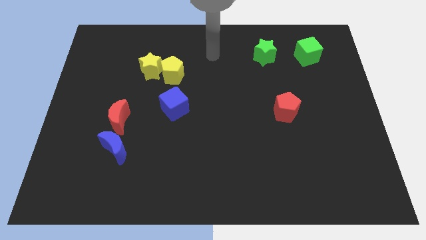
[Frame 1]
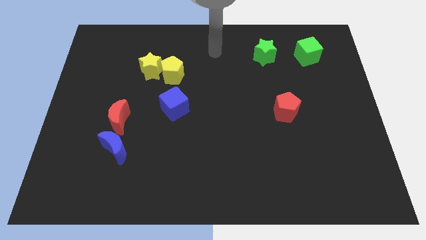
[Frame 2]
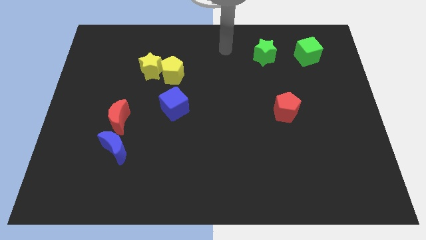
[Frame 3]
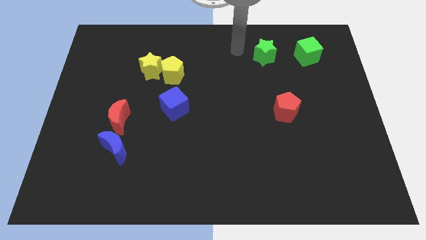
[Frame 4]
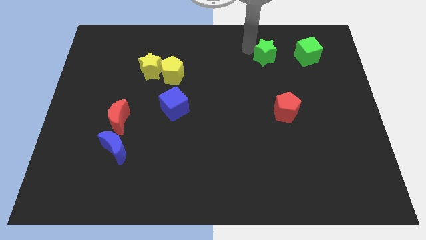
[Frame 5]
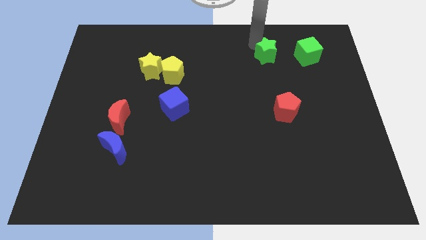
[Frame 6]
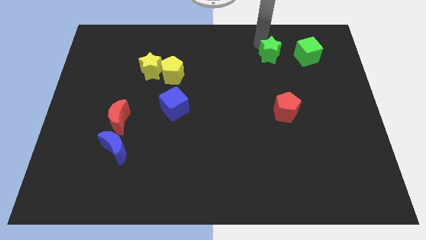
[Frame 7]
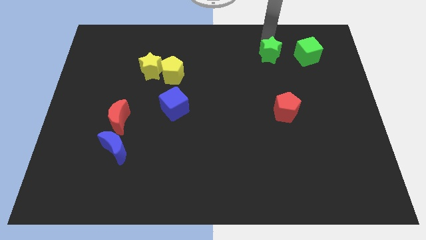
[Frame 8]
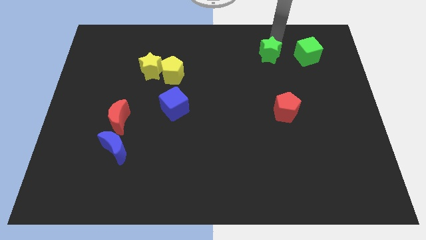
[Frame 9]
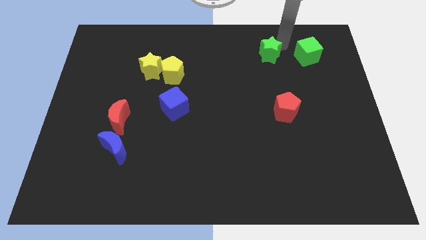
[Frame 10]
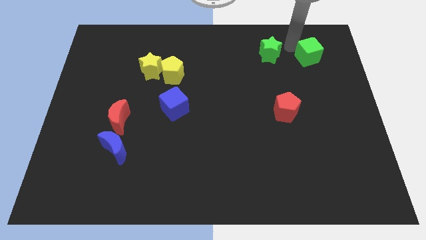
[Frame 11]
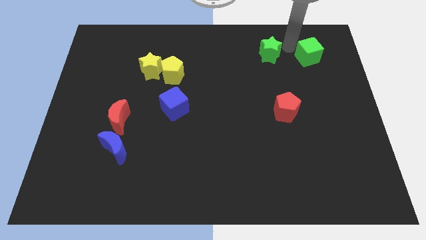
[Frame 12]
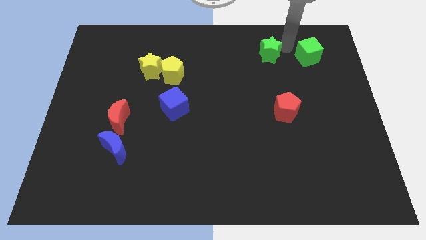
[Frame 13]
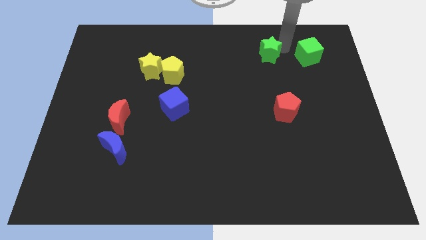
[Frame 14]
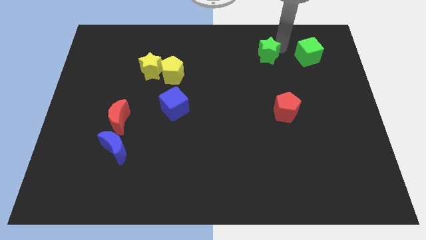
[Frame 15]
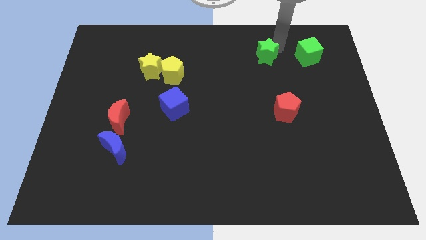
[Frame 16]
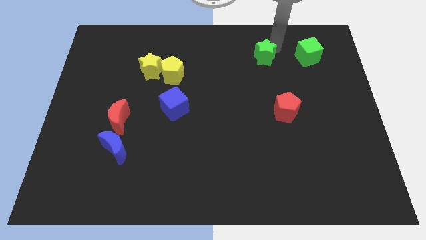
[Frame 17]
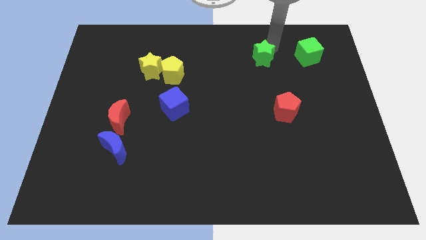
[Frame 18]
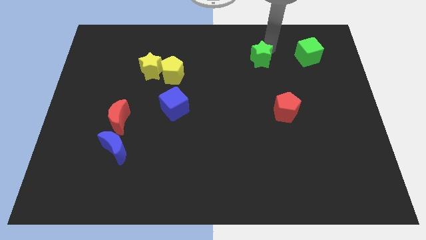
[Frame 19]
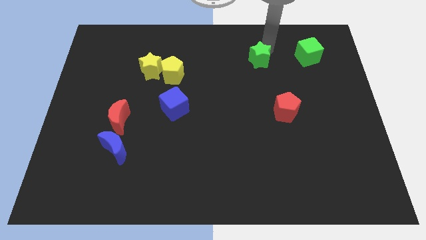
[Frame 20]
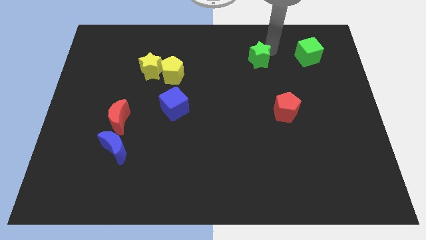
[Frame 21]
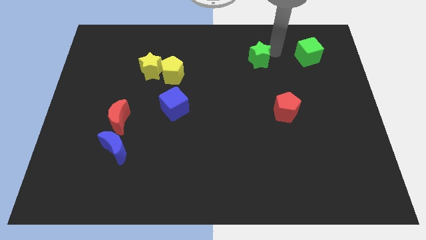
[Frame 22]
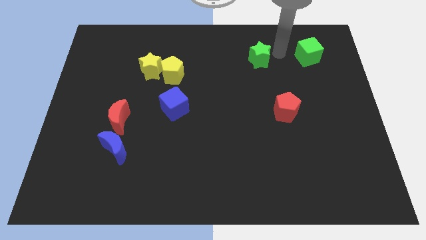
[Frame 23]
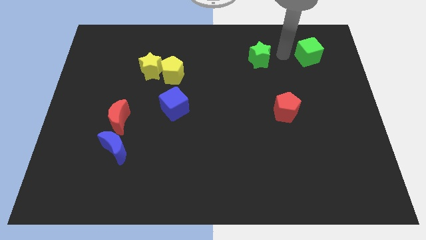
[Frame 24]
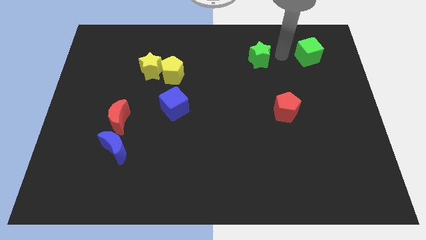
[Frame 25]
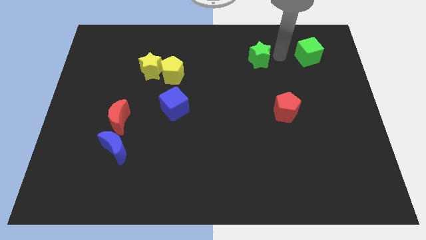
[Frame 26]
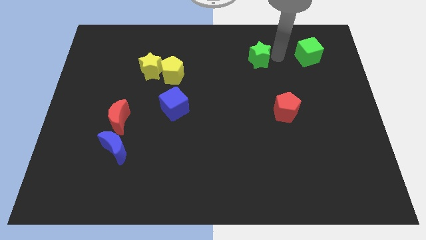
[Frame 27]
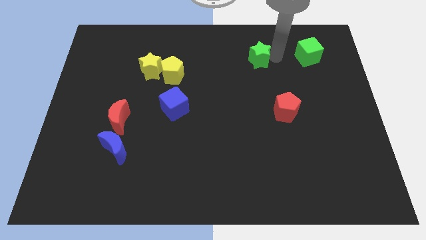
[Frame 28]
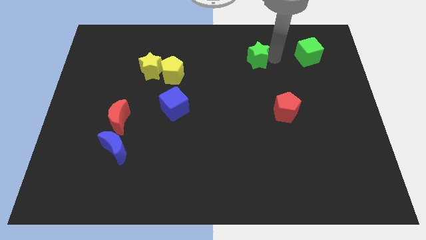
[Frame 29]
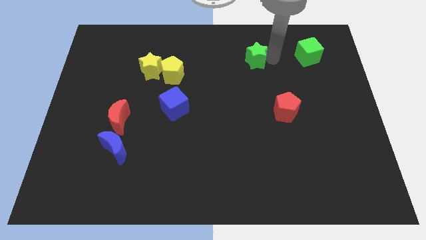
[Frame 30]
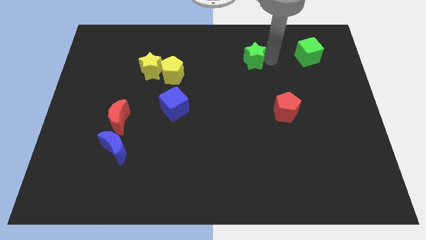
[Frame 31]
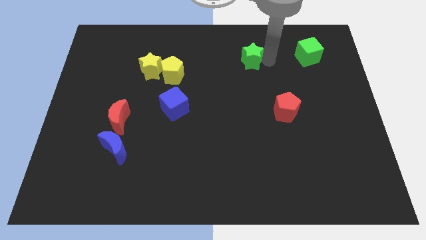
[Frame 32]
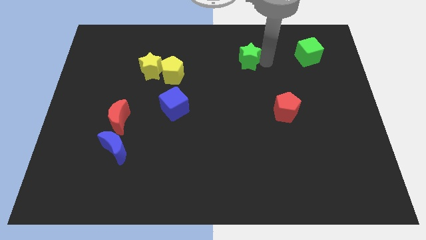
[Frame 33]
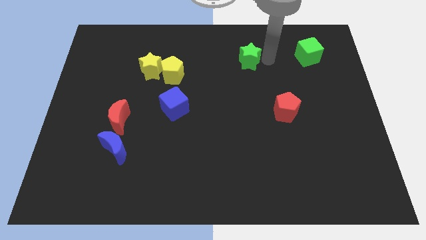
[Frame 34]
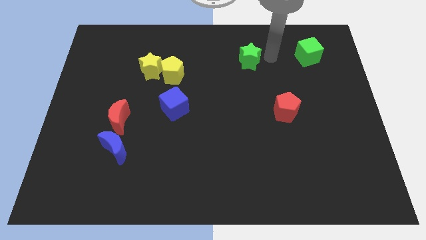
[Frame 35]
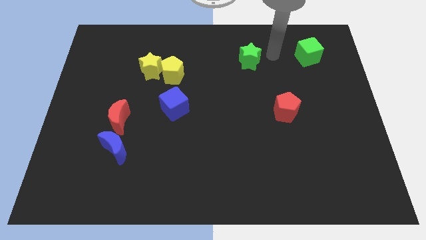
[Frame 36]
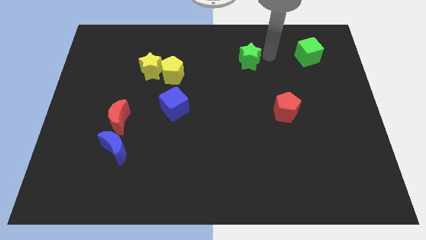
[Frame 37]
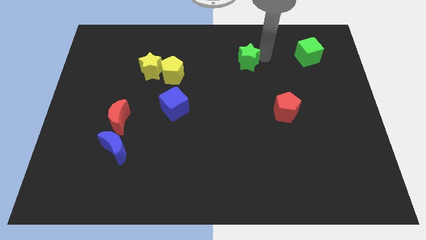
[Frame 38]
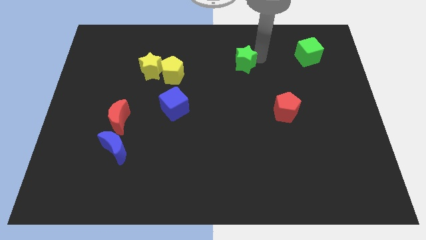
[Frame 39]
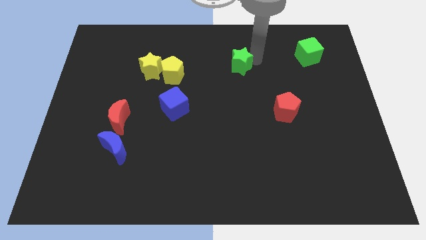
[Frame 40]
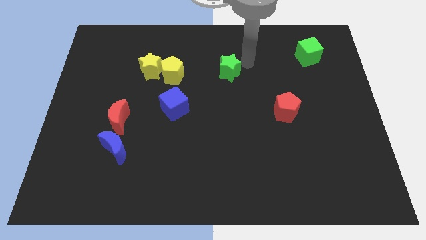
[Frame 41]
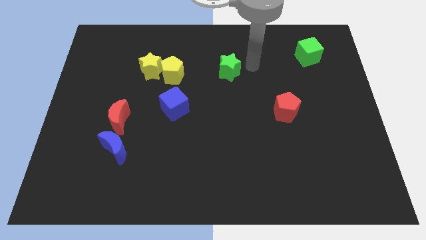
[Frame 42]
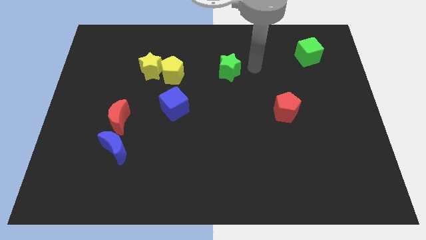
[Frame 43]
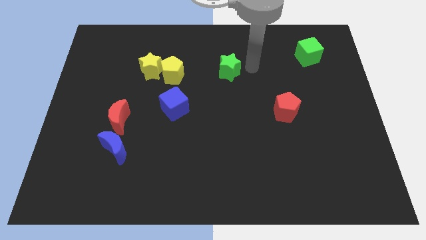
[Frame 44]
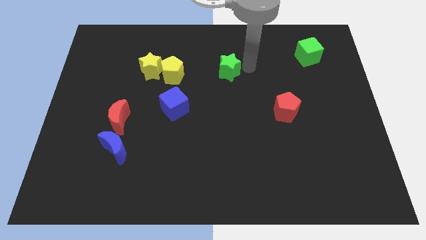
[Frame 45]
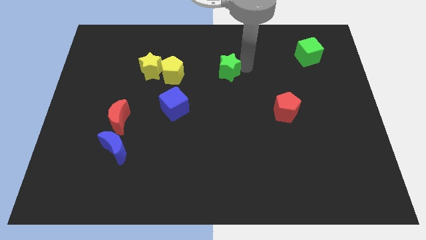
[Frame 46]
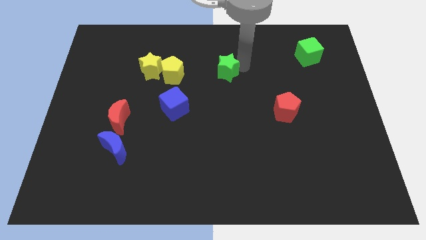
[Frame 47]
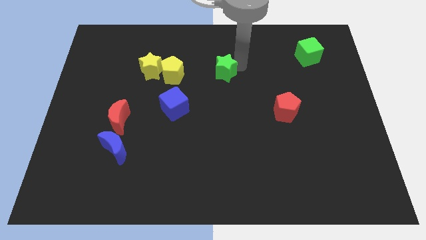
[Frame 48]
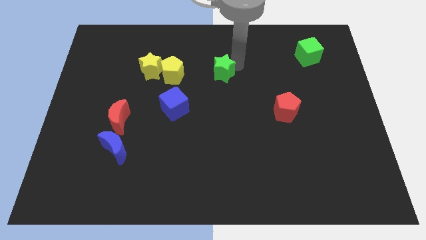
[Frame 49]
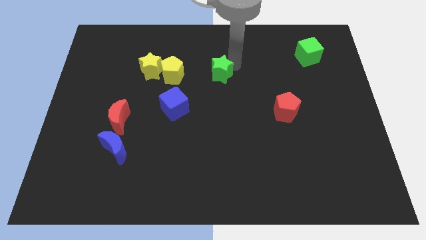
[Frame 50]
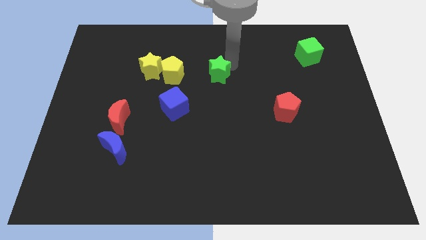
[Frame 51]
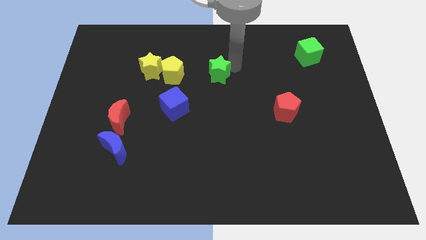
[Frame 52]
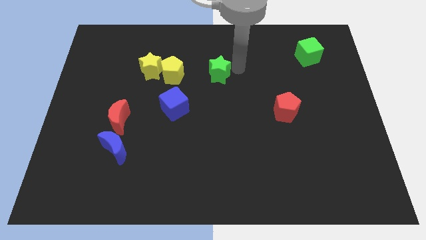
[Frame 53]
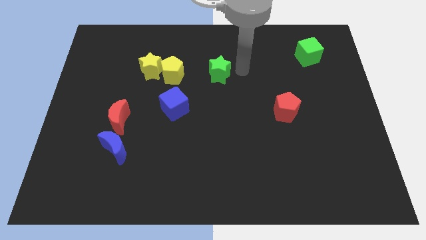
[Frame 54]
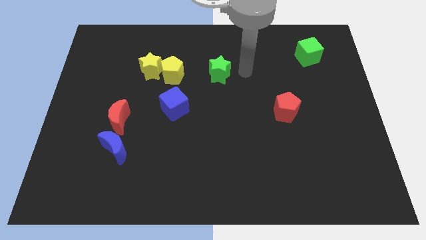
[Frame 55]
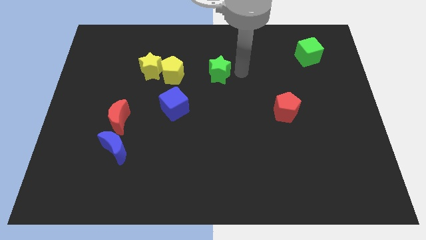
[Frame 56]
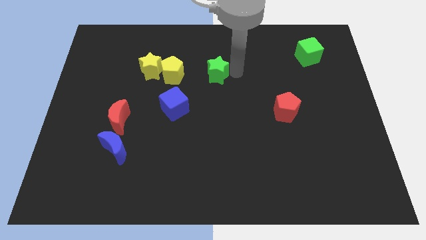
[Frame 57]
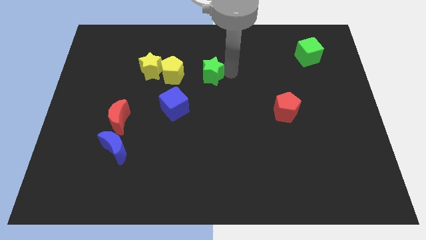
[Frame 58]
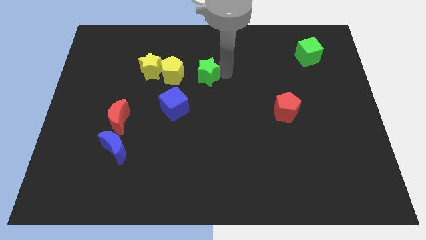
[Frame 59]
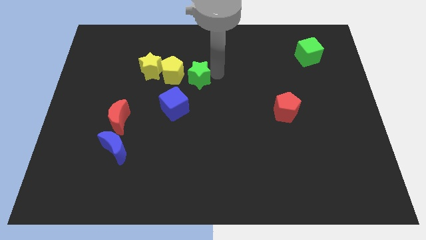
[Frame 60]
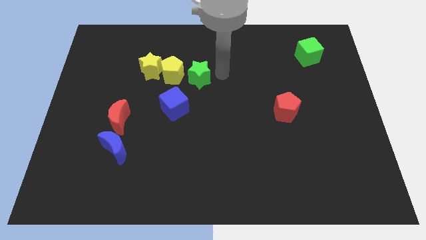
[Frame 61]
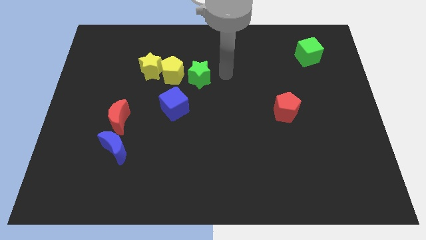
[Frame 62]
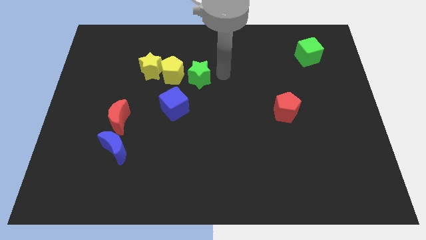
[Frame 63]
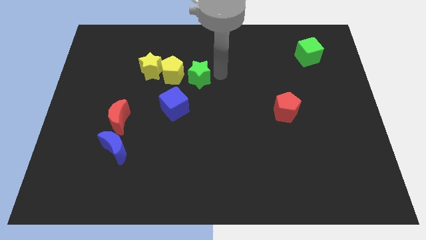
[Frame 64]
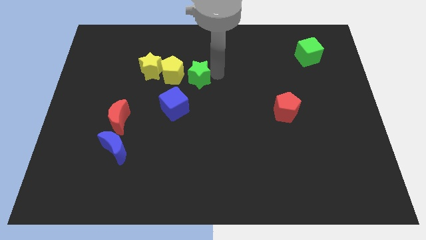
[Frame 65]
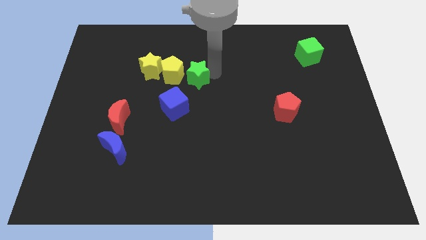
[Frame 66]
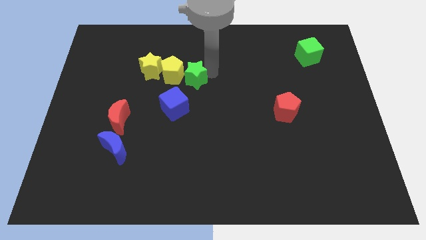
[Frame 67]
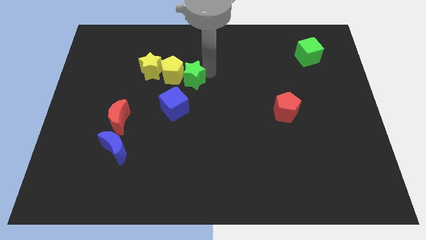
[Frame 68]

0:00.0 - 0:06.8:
slide the green star to the yellow pentagon
